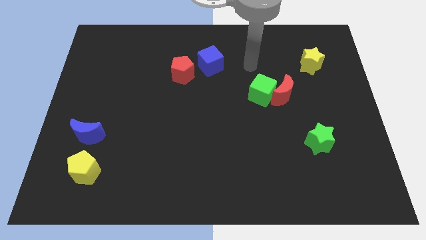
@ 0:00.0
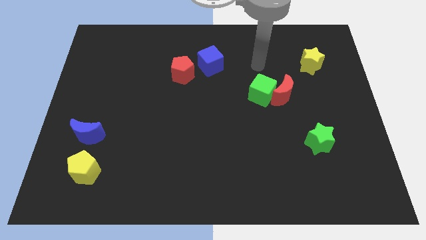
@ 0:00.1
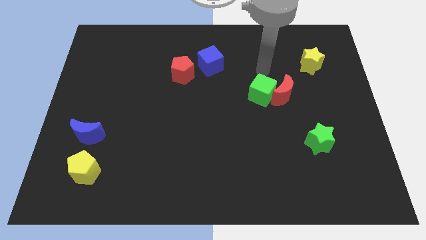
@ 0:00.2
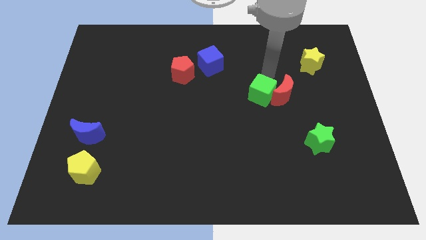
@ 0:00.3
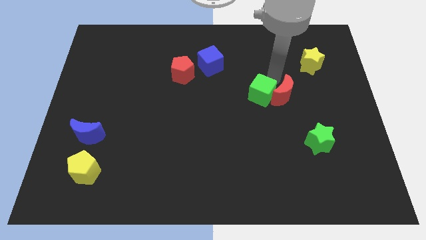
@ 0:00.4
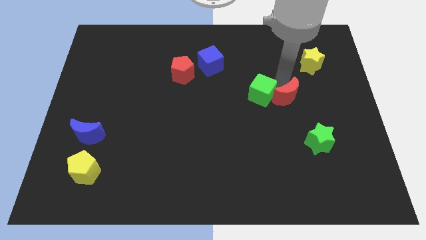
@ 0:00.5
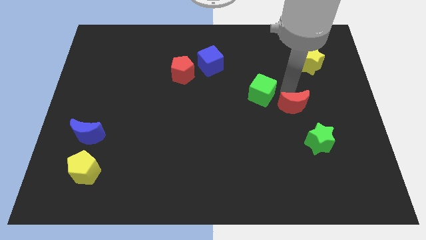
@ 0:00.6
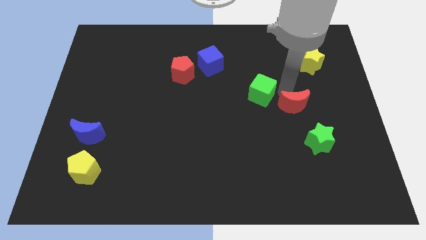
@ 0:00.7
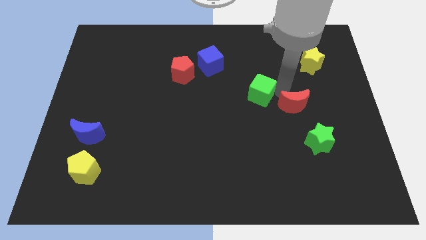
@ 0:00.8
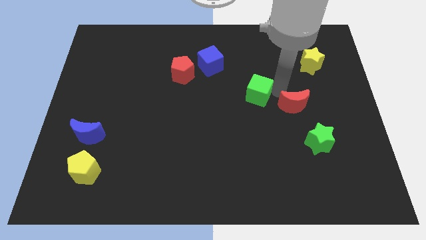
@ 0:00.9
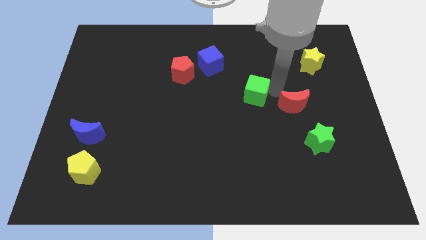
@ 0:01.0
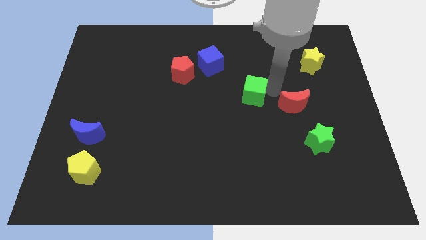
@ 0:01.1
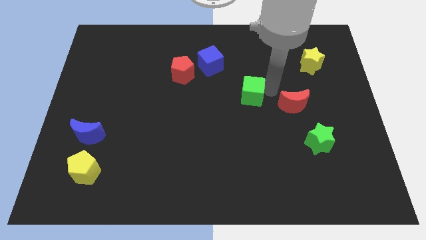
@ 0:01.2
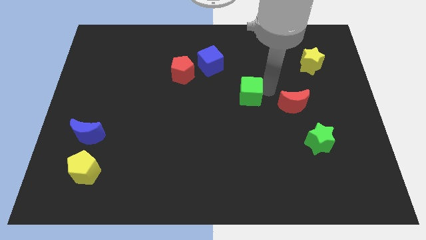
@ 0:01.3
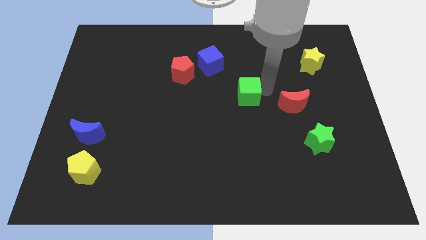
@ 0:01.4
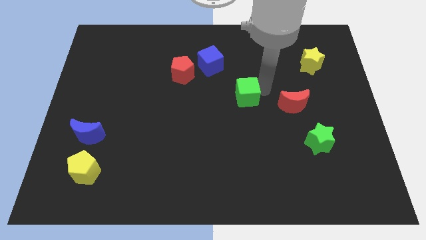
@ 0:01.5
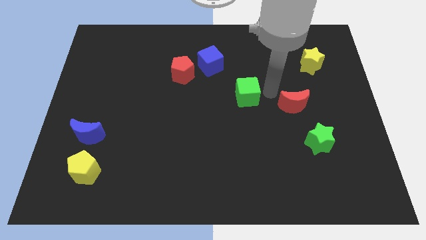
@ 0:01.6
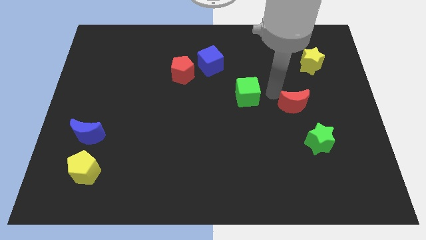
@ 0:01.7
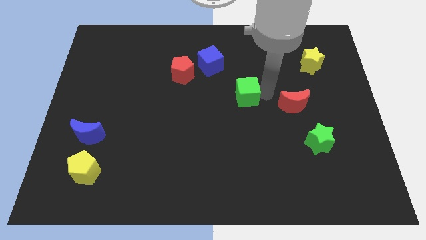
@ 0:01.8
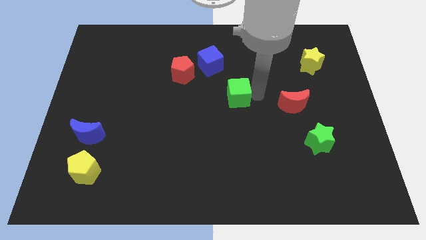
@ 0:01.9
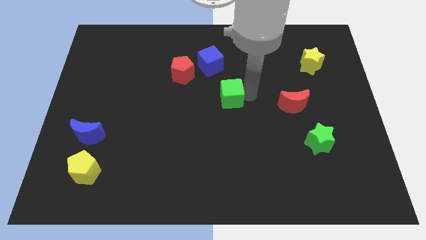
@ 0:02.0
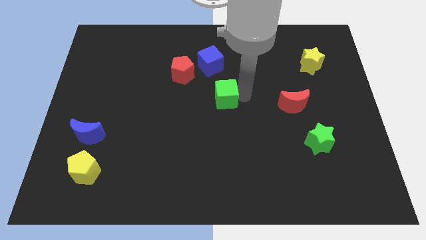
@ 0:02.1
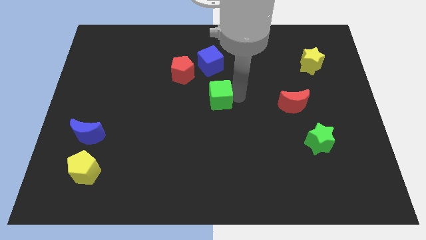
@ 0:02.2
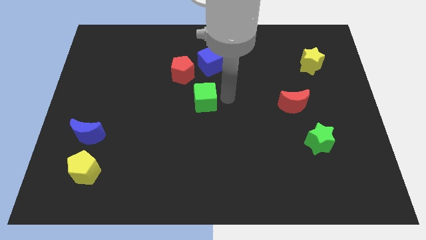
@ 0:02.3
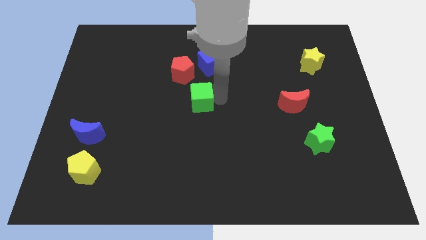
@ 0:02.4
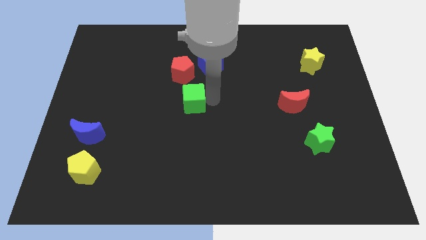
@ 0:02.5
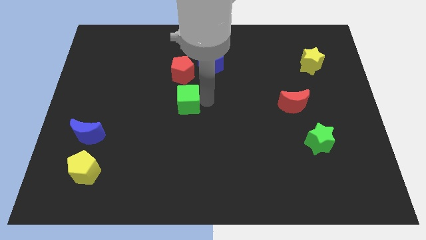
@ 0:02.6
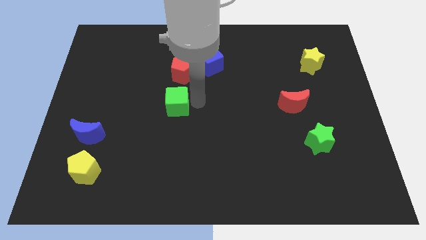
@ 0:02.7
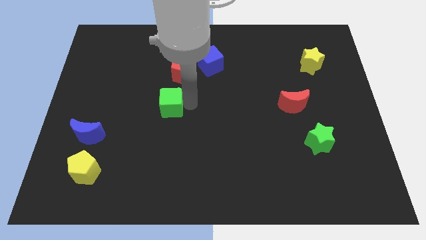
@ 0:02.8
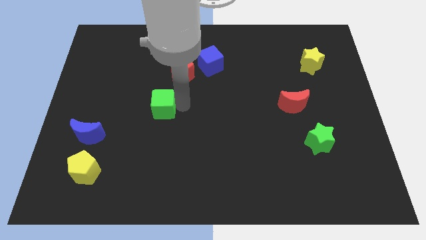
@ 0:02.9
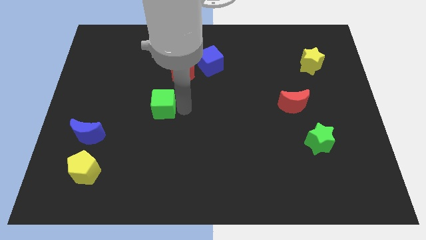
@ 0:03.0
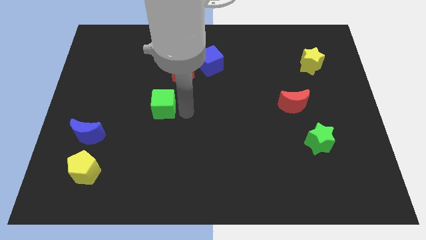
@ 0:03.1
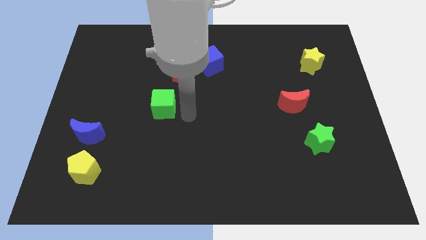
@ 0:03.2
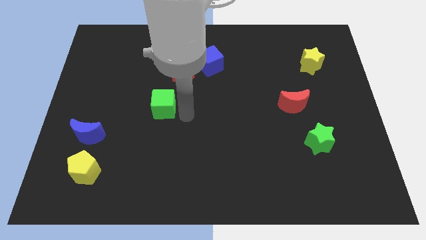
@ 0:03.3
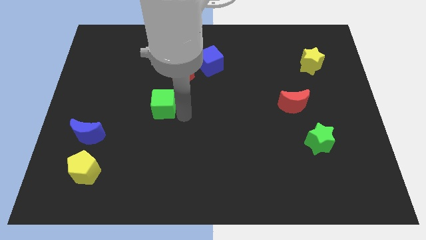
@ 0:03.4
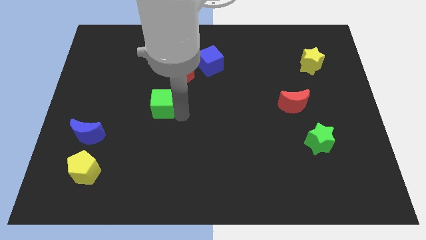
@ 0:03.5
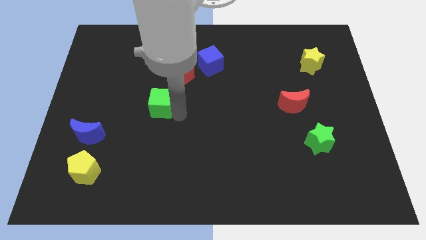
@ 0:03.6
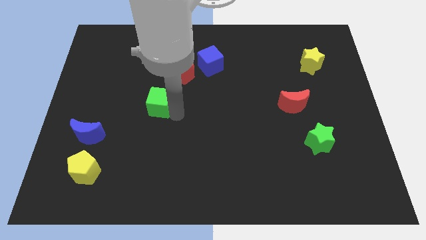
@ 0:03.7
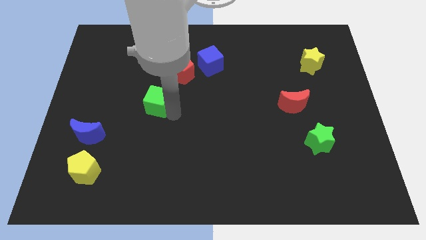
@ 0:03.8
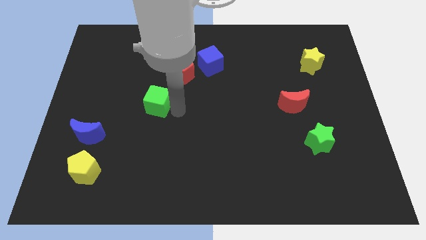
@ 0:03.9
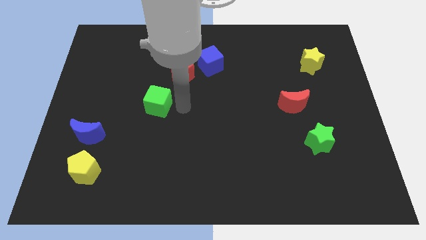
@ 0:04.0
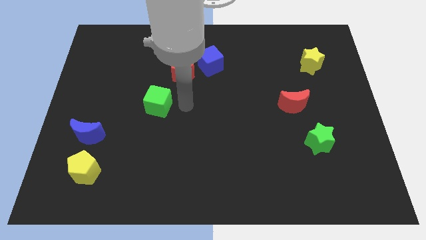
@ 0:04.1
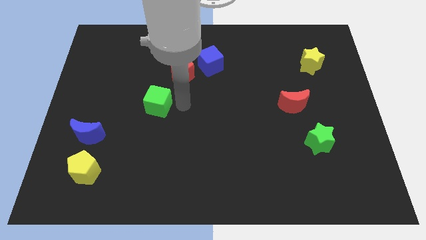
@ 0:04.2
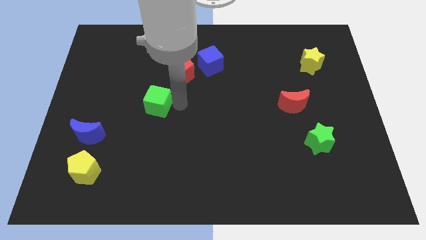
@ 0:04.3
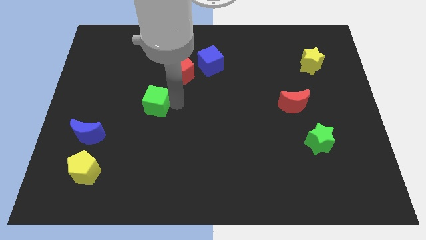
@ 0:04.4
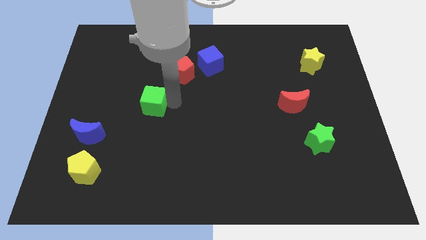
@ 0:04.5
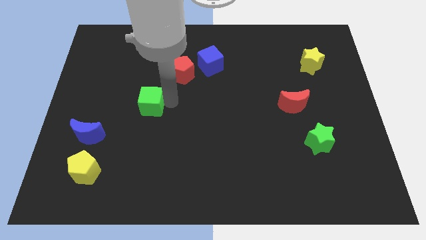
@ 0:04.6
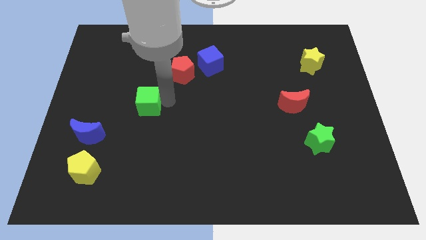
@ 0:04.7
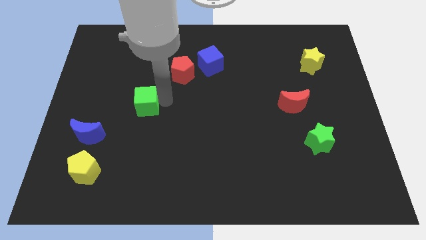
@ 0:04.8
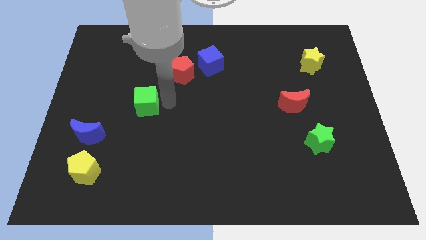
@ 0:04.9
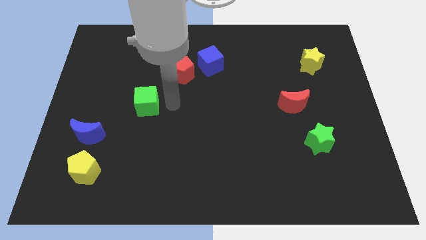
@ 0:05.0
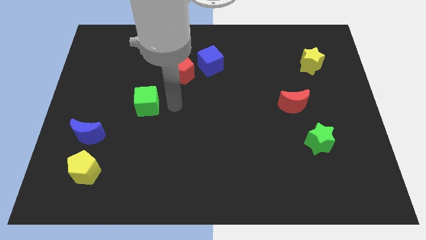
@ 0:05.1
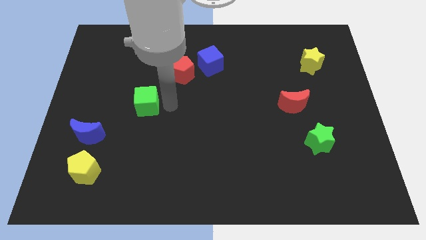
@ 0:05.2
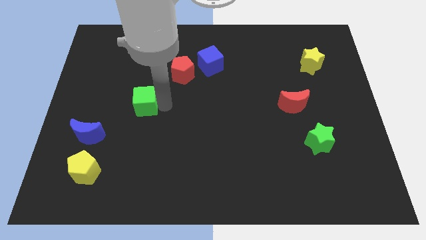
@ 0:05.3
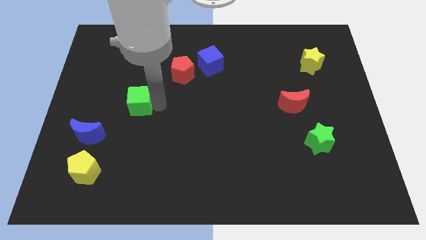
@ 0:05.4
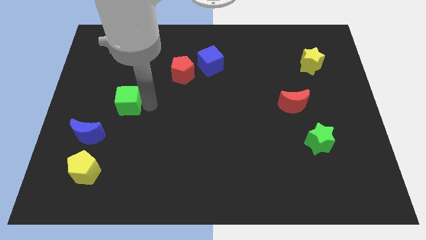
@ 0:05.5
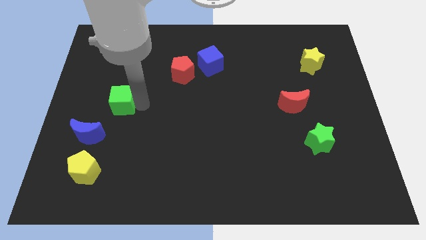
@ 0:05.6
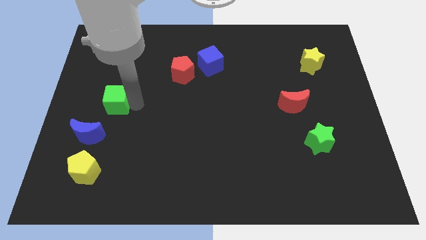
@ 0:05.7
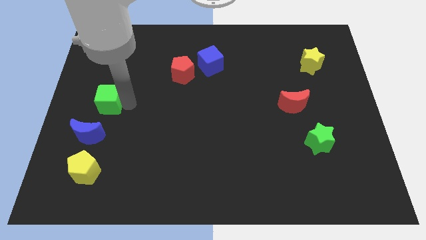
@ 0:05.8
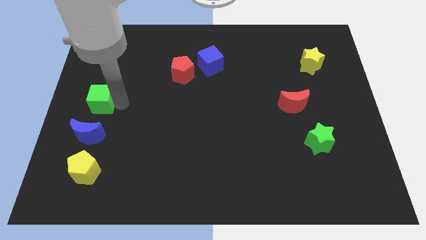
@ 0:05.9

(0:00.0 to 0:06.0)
push the green cube to the center left

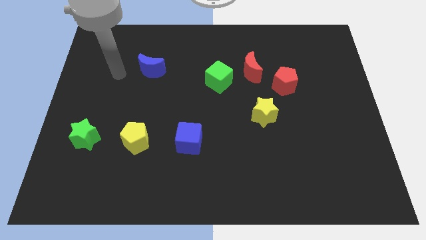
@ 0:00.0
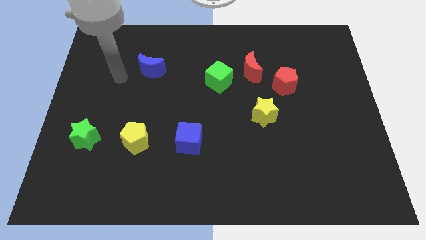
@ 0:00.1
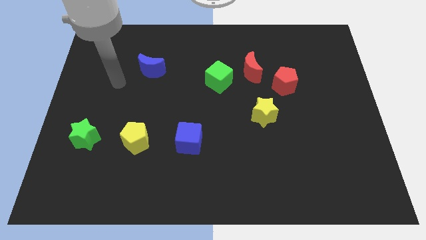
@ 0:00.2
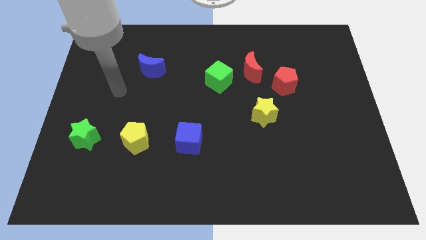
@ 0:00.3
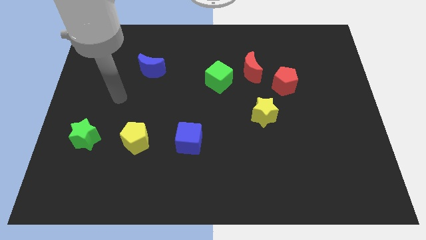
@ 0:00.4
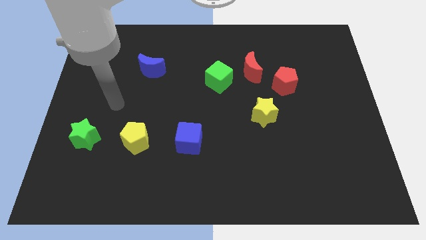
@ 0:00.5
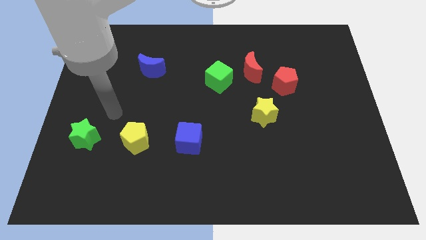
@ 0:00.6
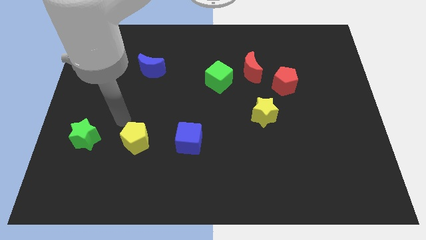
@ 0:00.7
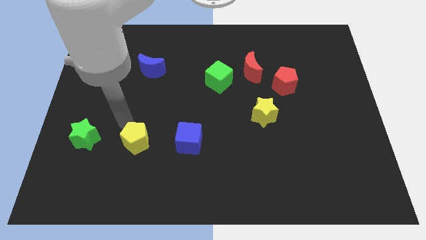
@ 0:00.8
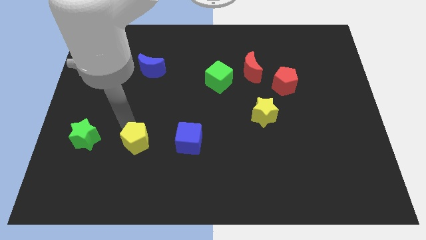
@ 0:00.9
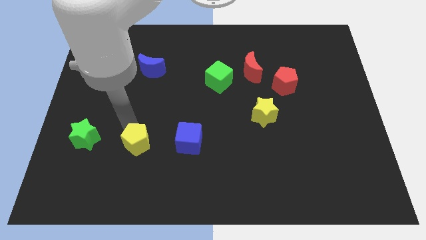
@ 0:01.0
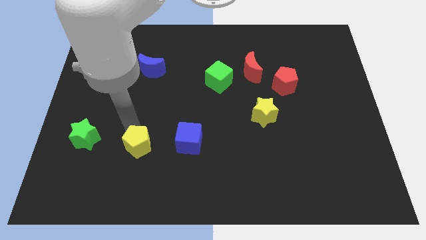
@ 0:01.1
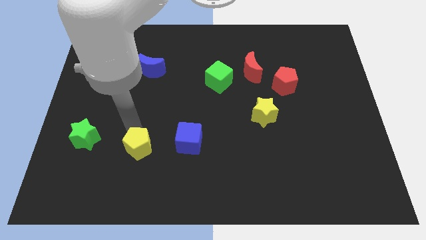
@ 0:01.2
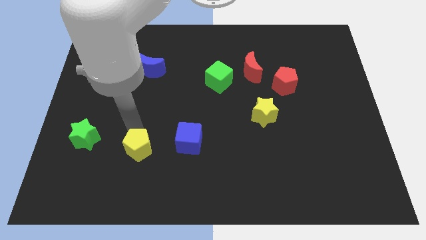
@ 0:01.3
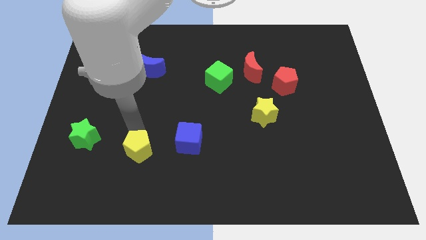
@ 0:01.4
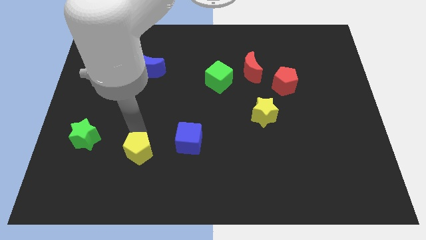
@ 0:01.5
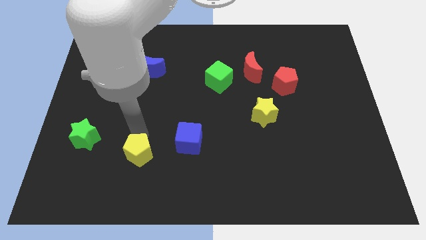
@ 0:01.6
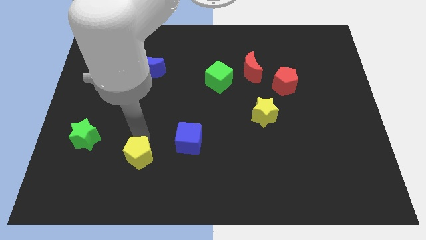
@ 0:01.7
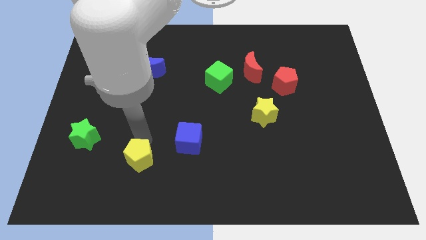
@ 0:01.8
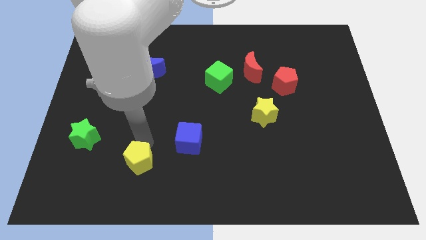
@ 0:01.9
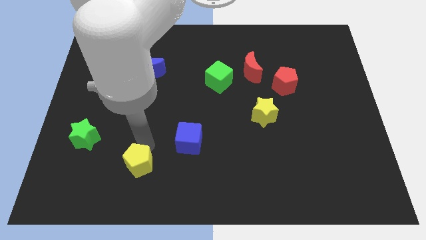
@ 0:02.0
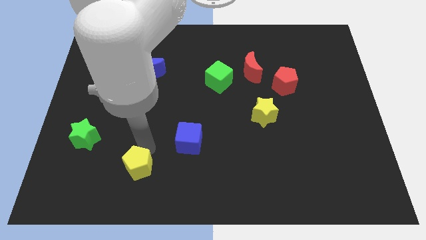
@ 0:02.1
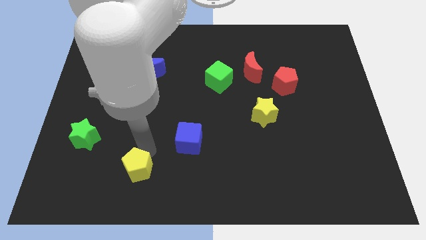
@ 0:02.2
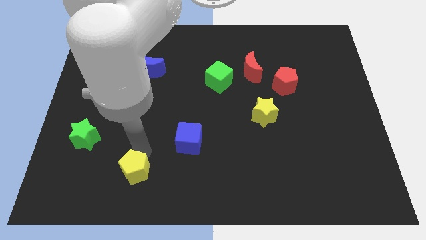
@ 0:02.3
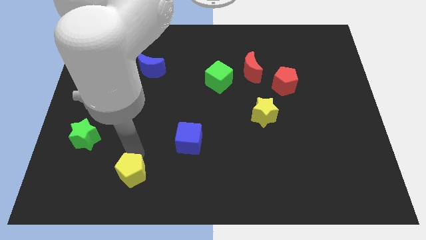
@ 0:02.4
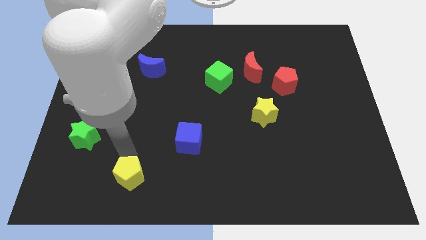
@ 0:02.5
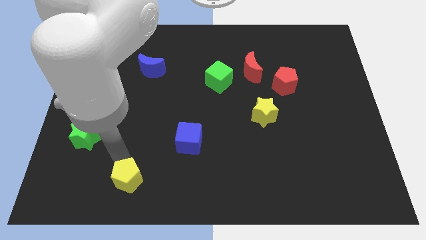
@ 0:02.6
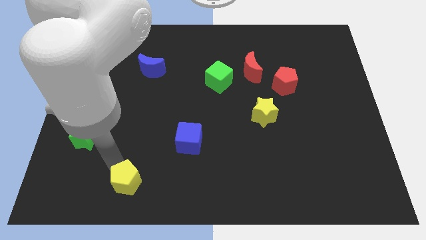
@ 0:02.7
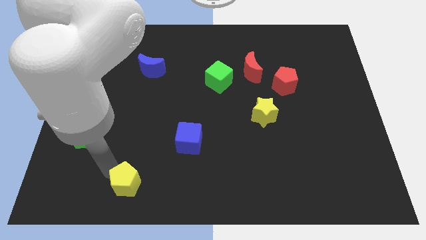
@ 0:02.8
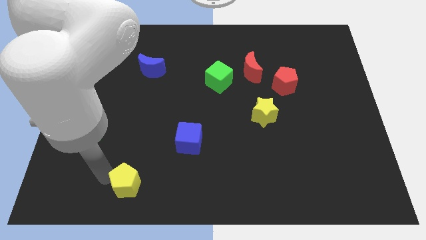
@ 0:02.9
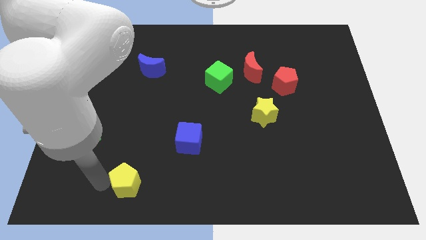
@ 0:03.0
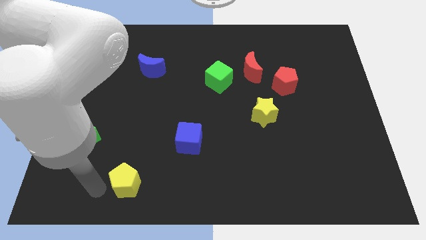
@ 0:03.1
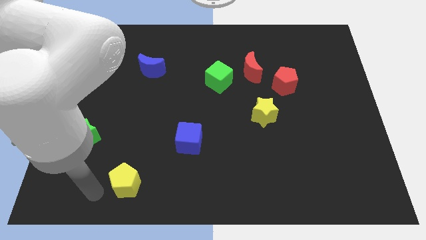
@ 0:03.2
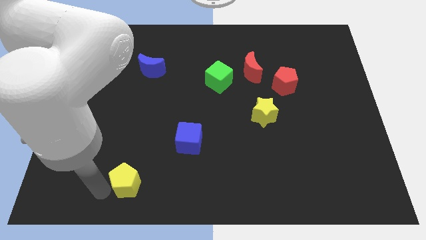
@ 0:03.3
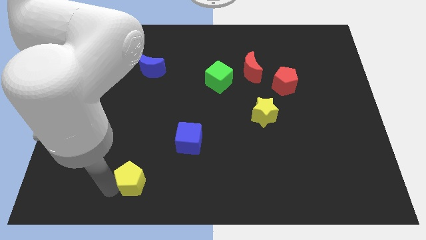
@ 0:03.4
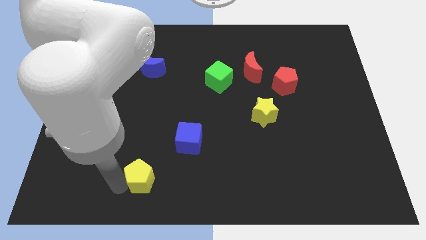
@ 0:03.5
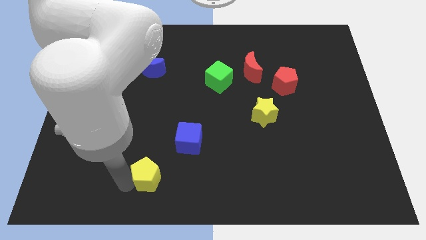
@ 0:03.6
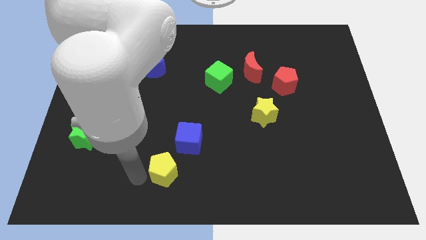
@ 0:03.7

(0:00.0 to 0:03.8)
push the yellow pentagon to the bottom side
